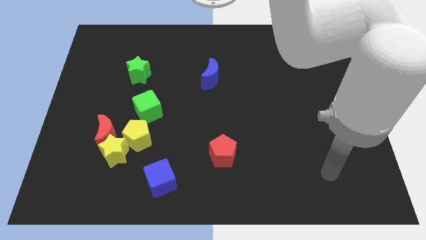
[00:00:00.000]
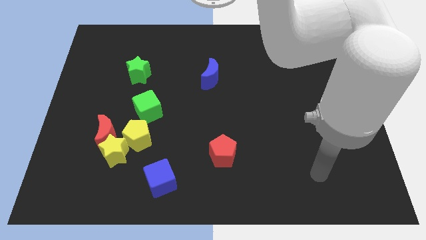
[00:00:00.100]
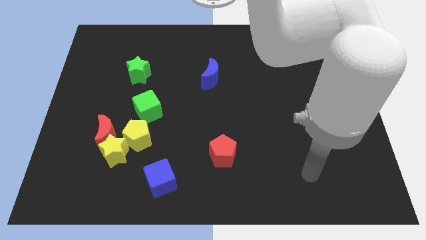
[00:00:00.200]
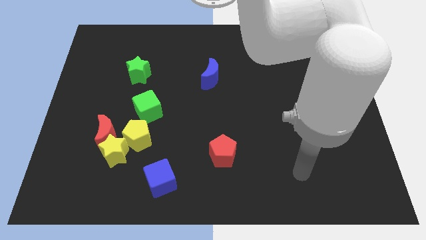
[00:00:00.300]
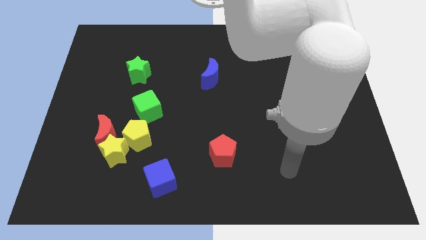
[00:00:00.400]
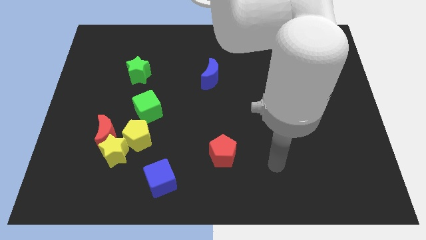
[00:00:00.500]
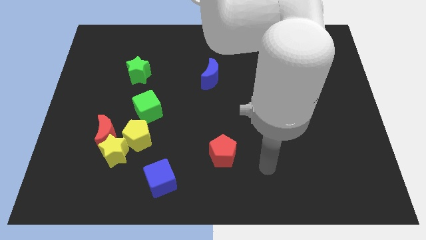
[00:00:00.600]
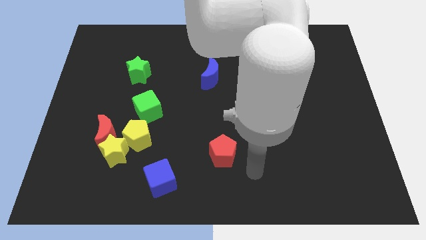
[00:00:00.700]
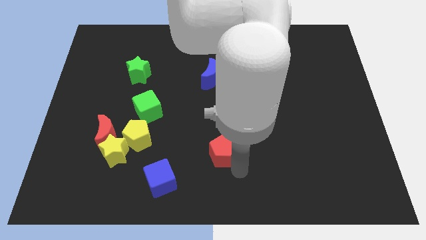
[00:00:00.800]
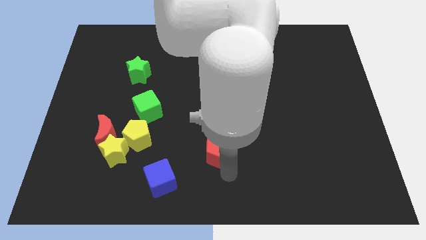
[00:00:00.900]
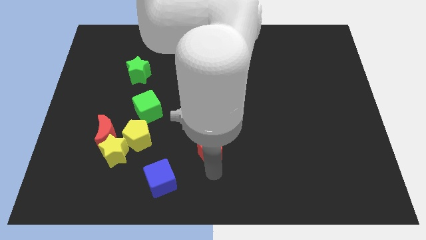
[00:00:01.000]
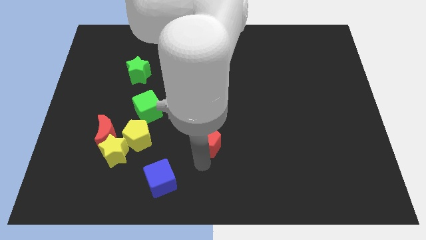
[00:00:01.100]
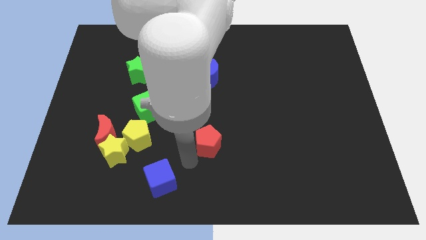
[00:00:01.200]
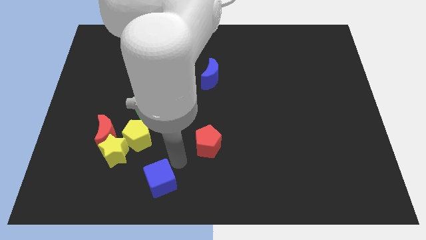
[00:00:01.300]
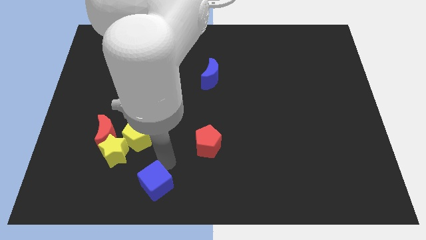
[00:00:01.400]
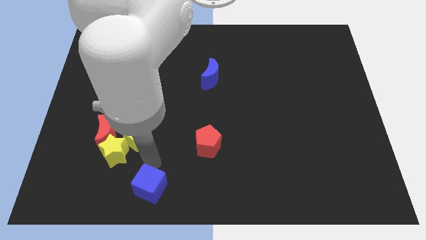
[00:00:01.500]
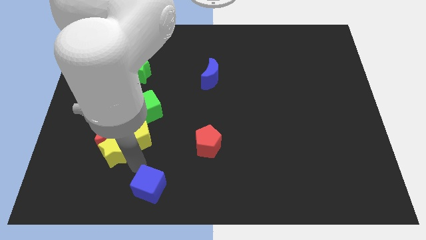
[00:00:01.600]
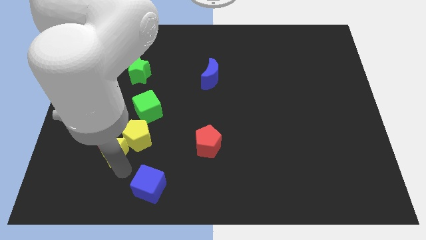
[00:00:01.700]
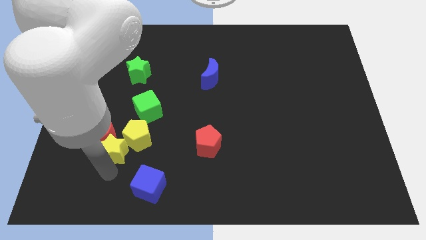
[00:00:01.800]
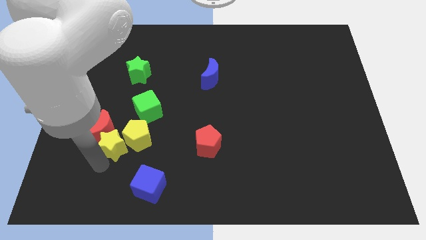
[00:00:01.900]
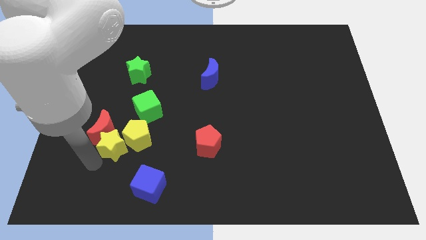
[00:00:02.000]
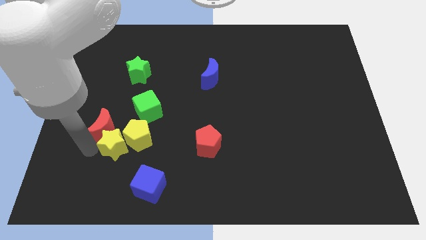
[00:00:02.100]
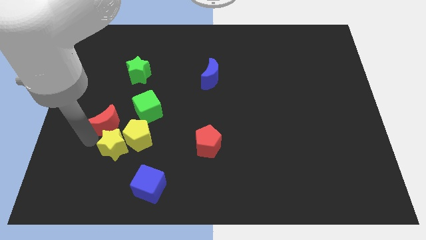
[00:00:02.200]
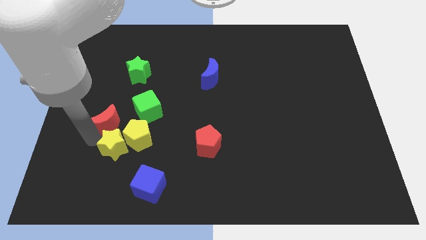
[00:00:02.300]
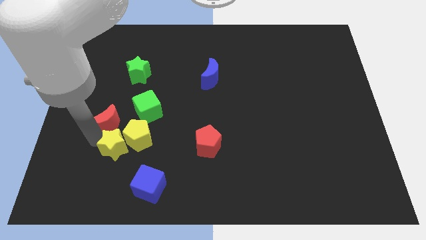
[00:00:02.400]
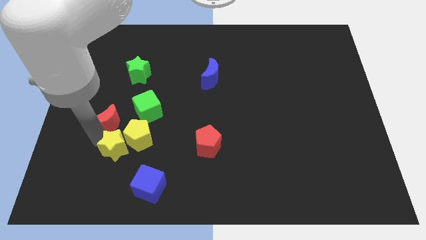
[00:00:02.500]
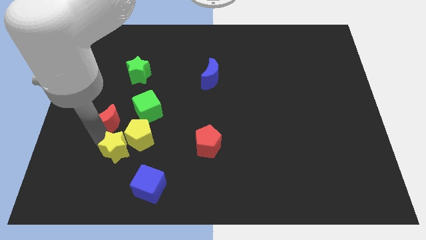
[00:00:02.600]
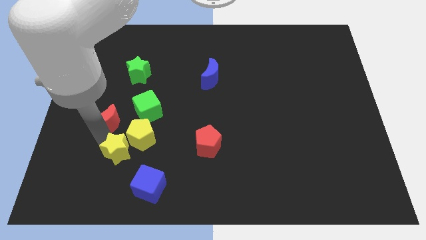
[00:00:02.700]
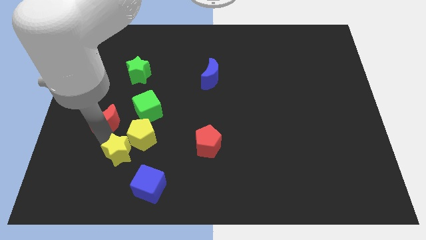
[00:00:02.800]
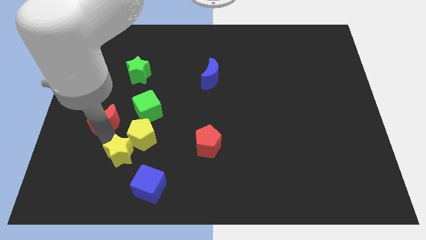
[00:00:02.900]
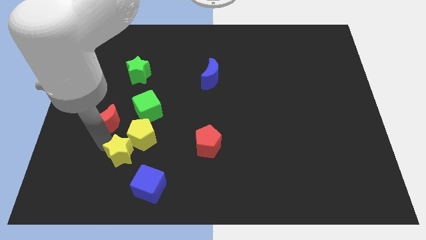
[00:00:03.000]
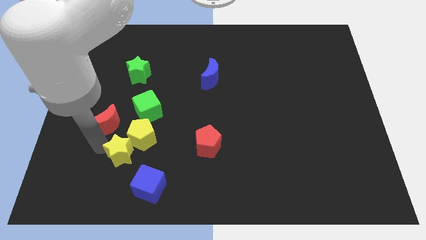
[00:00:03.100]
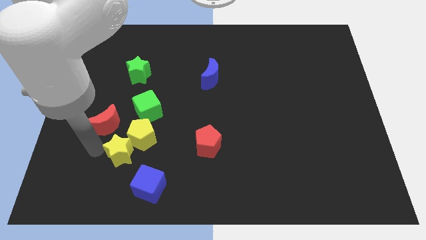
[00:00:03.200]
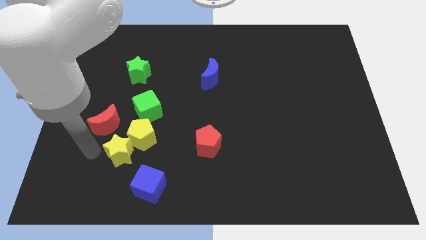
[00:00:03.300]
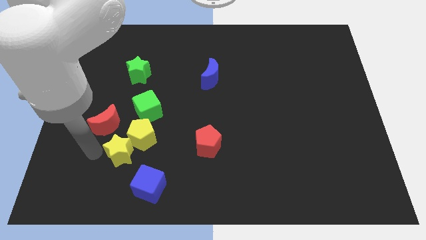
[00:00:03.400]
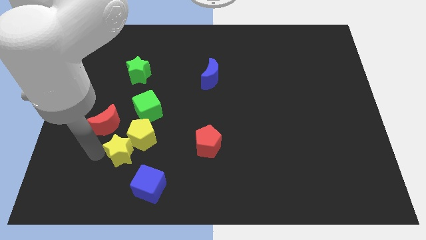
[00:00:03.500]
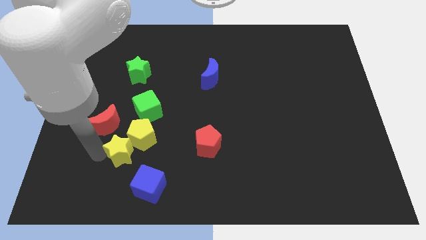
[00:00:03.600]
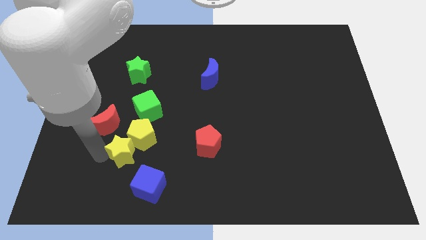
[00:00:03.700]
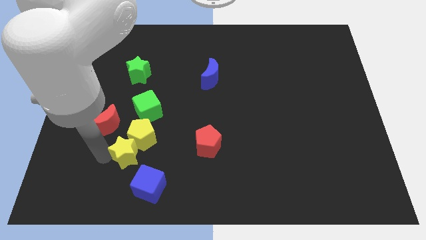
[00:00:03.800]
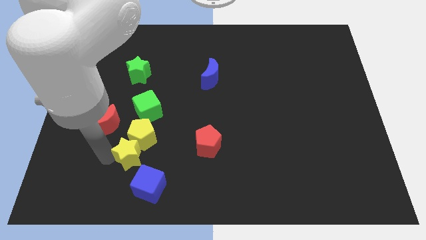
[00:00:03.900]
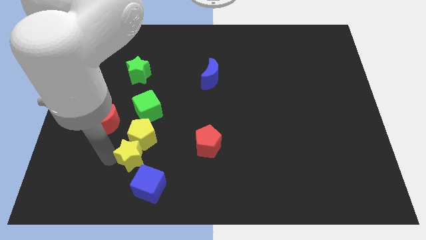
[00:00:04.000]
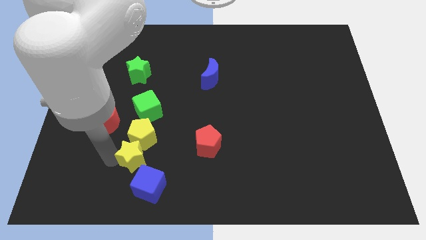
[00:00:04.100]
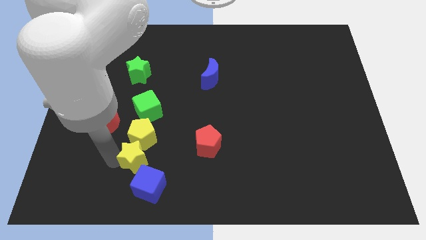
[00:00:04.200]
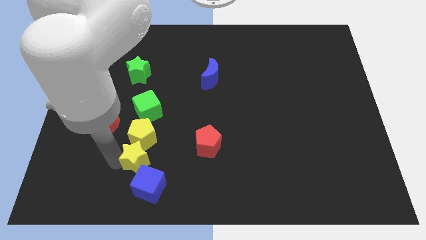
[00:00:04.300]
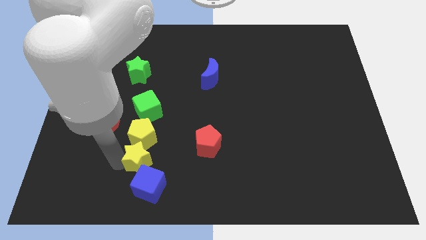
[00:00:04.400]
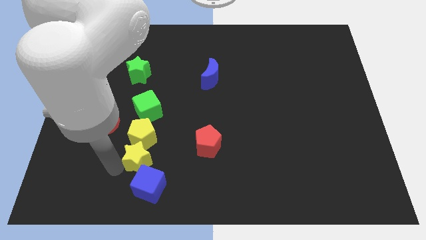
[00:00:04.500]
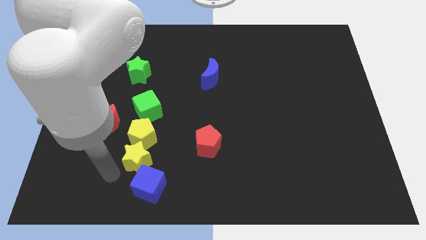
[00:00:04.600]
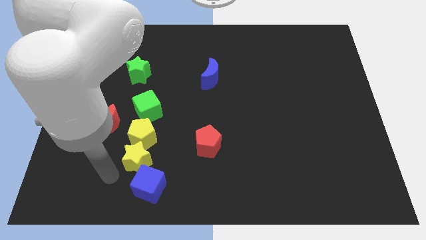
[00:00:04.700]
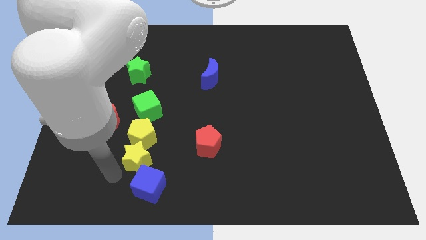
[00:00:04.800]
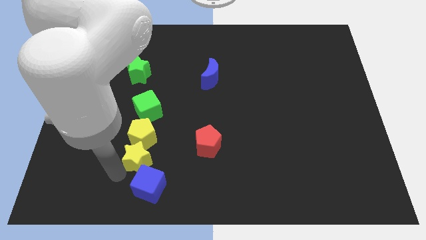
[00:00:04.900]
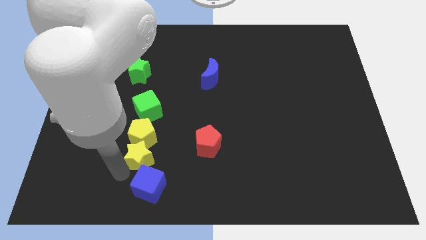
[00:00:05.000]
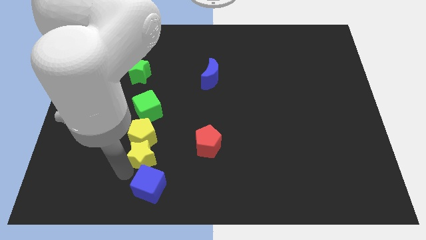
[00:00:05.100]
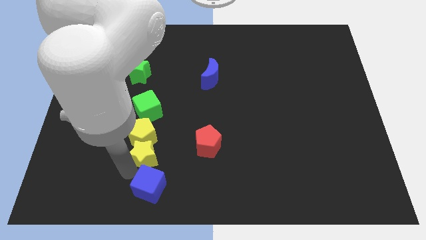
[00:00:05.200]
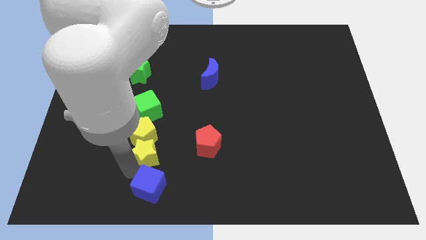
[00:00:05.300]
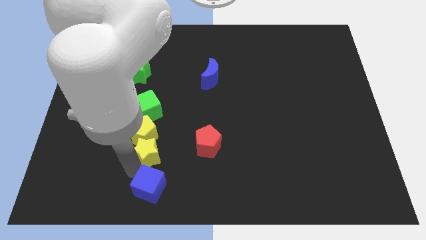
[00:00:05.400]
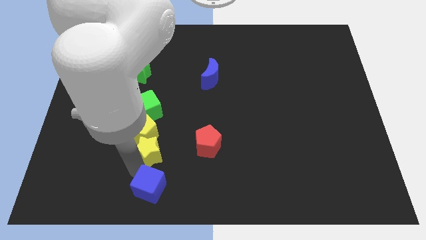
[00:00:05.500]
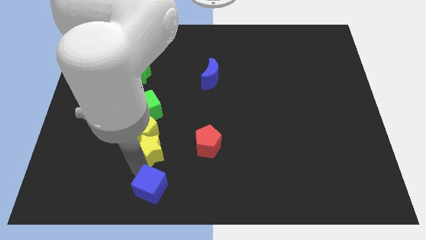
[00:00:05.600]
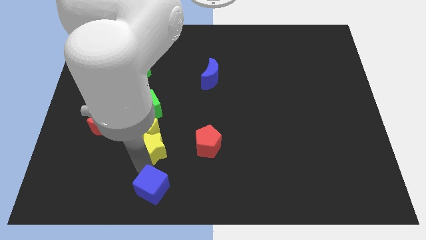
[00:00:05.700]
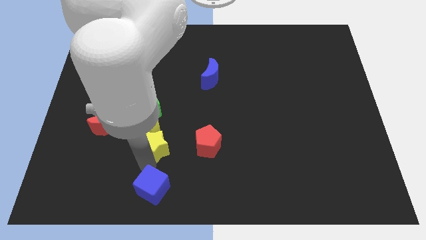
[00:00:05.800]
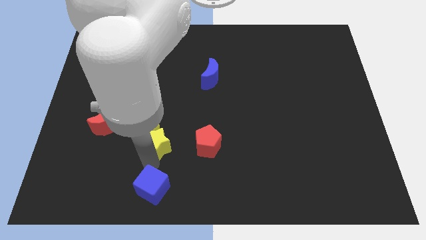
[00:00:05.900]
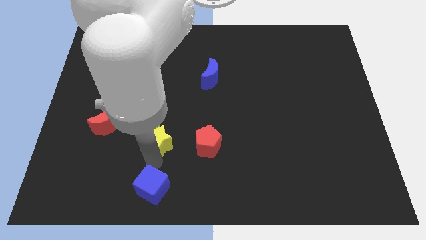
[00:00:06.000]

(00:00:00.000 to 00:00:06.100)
slightly slide the yellow star upwards and right

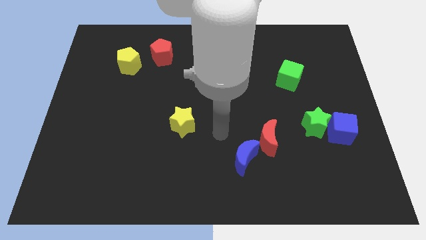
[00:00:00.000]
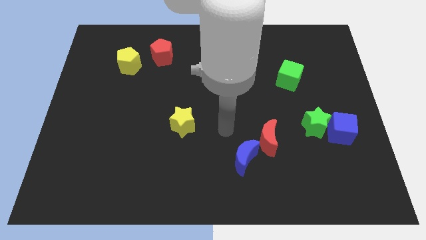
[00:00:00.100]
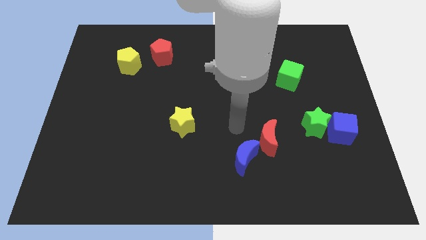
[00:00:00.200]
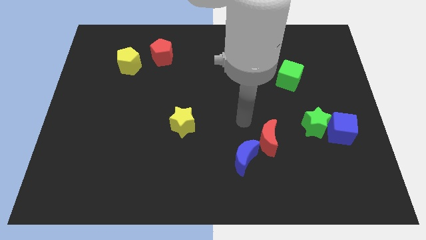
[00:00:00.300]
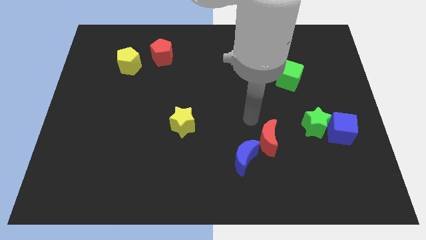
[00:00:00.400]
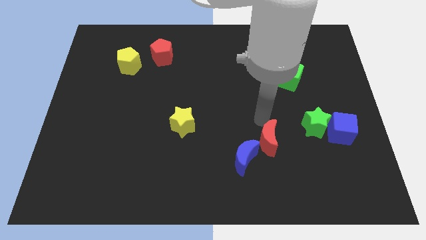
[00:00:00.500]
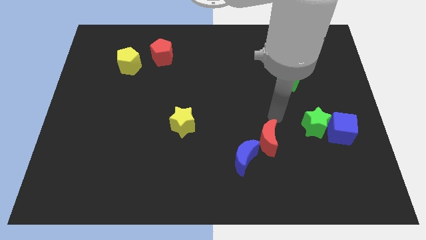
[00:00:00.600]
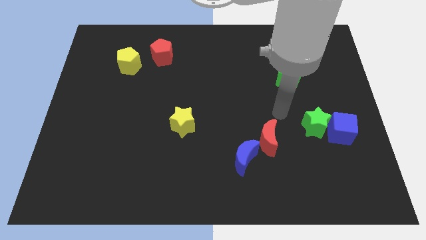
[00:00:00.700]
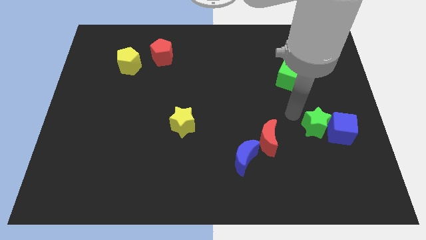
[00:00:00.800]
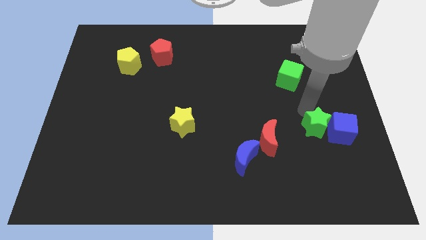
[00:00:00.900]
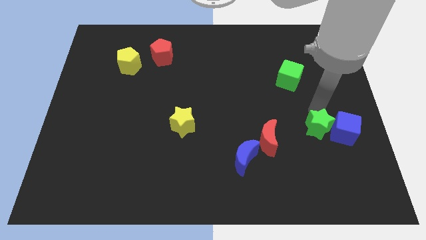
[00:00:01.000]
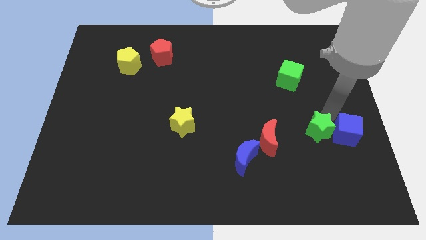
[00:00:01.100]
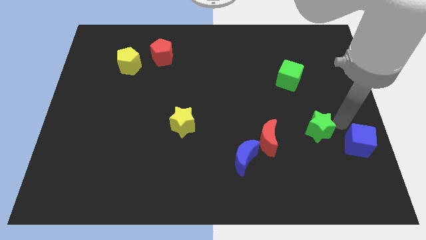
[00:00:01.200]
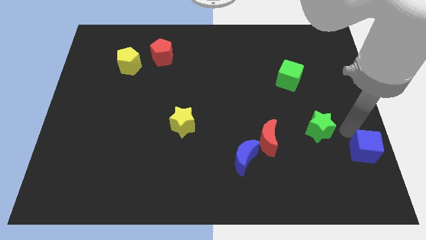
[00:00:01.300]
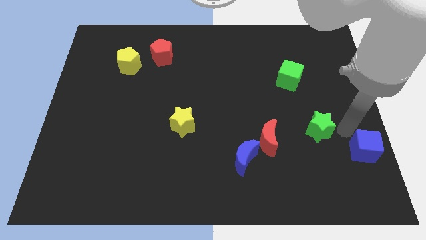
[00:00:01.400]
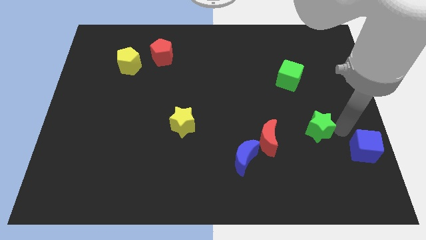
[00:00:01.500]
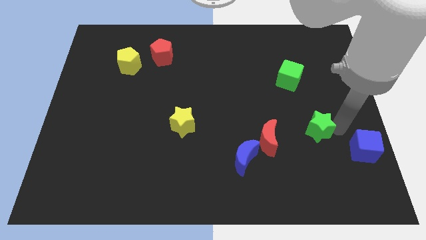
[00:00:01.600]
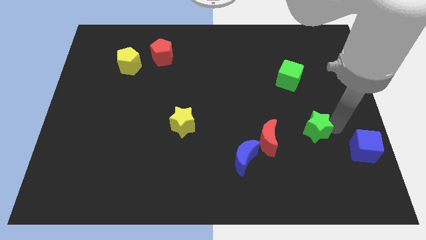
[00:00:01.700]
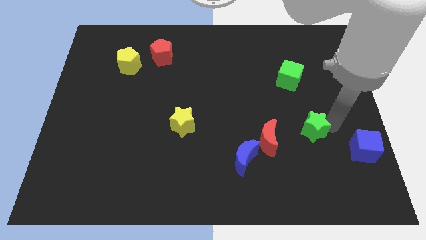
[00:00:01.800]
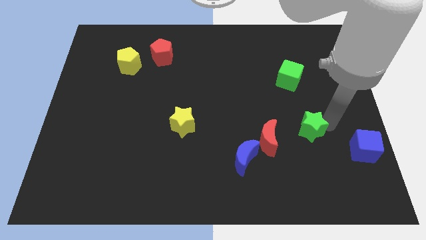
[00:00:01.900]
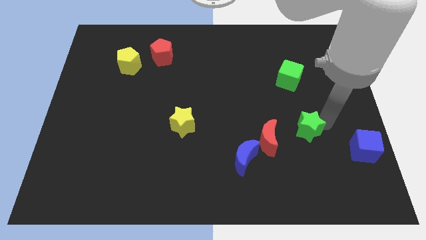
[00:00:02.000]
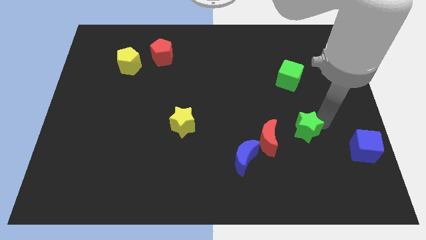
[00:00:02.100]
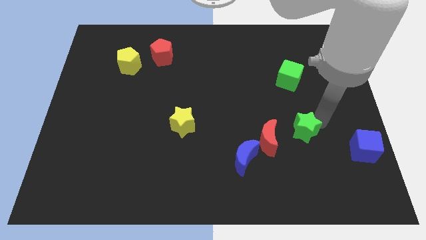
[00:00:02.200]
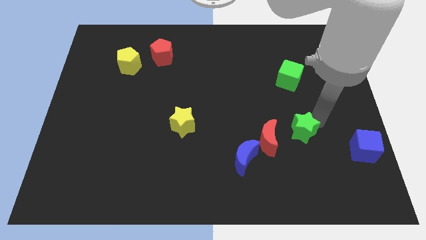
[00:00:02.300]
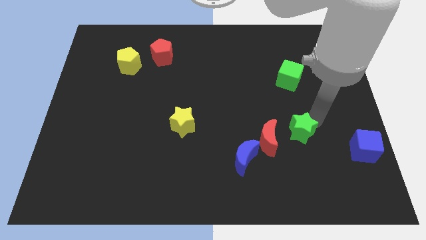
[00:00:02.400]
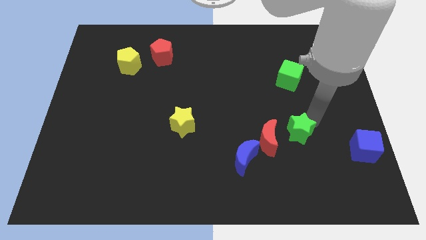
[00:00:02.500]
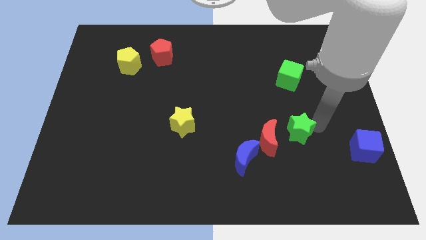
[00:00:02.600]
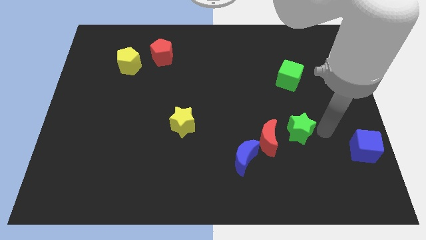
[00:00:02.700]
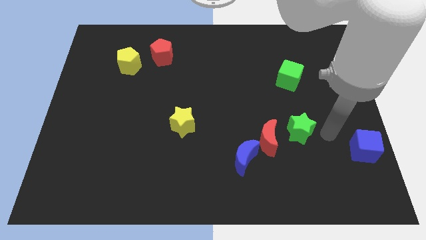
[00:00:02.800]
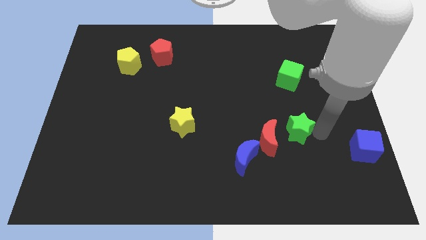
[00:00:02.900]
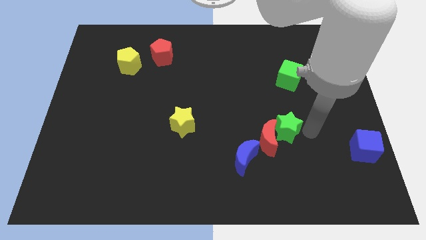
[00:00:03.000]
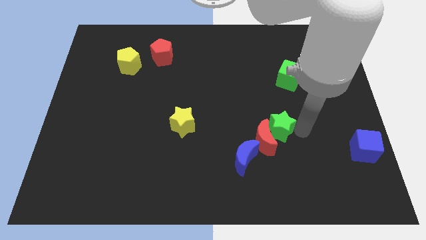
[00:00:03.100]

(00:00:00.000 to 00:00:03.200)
slightly slide the green star left
